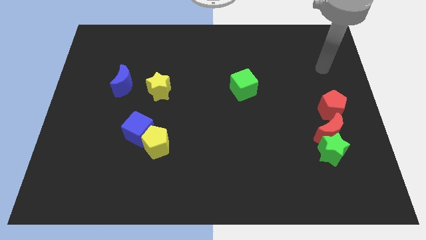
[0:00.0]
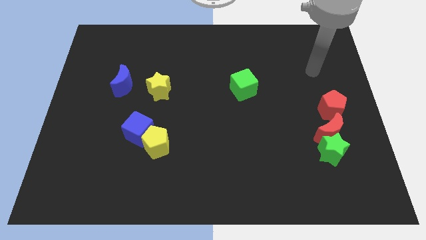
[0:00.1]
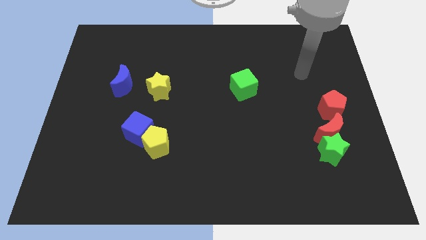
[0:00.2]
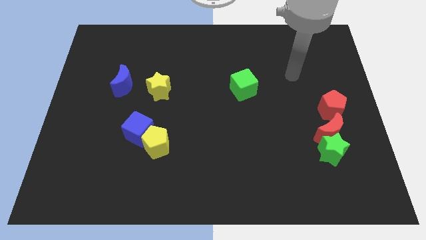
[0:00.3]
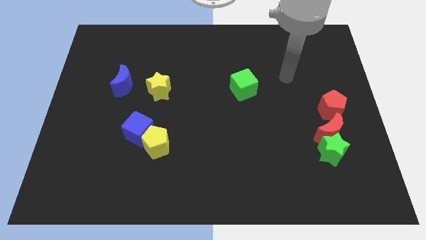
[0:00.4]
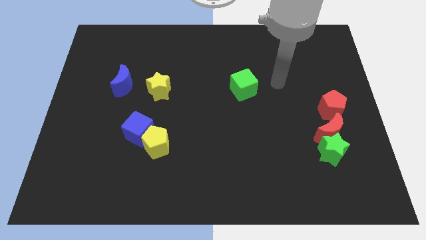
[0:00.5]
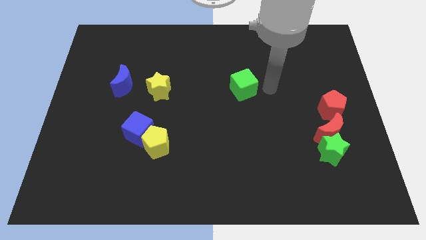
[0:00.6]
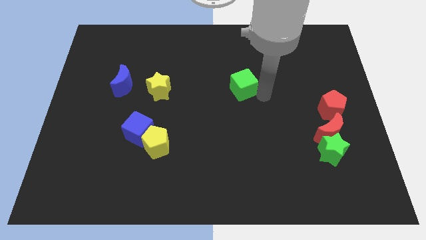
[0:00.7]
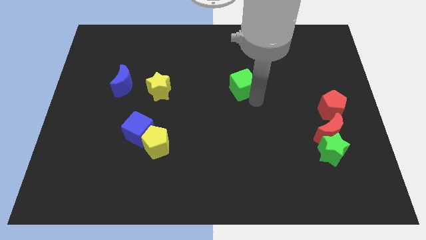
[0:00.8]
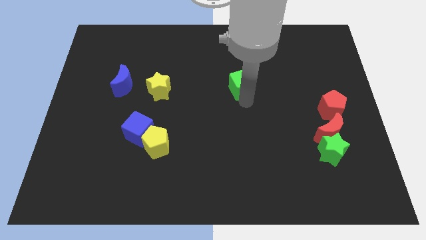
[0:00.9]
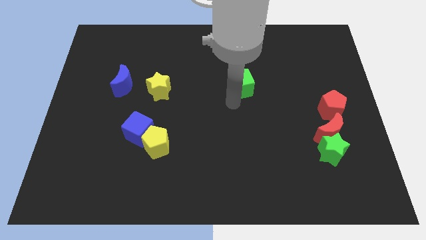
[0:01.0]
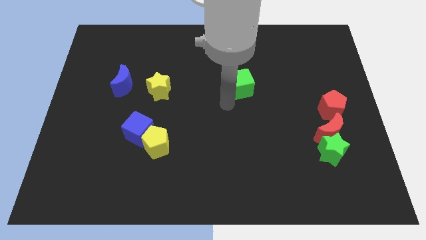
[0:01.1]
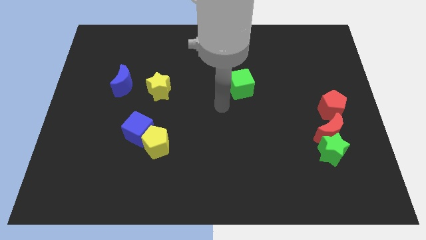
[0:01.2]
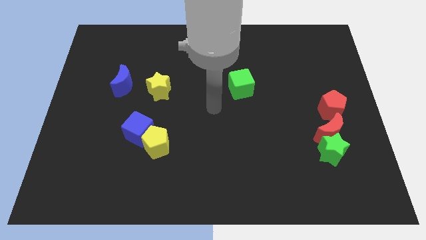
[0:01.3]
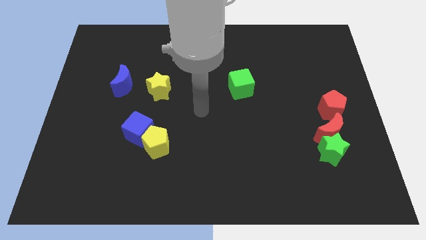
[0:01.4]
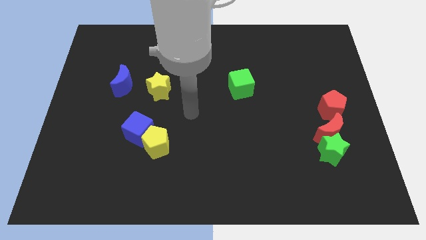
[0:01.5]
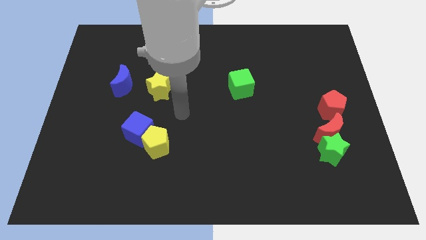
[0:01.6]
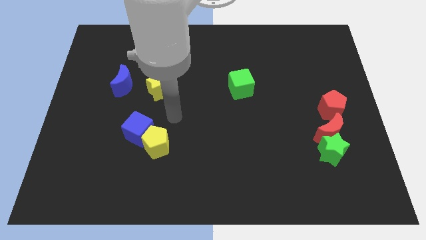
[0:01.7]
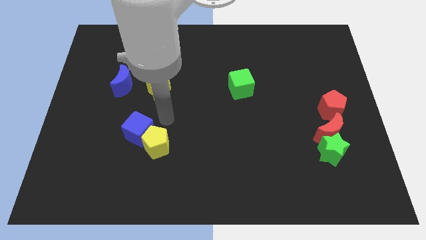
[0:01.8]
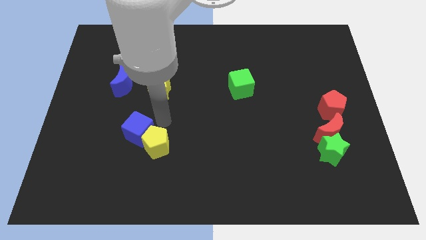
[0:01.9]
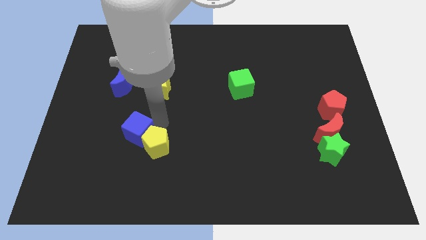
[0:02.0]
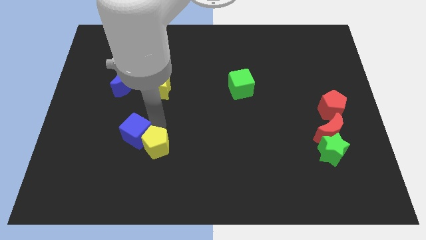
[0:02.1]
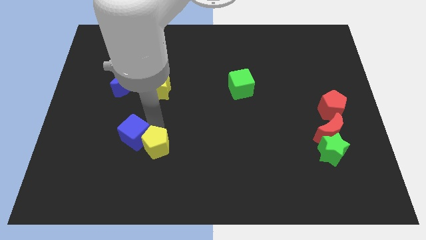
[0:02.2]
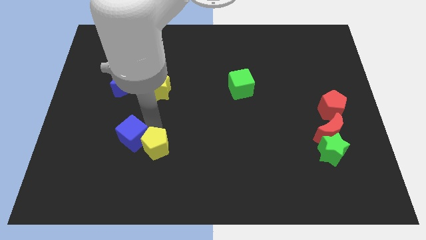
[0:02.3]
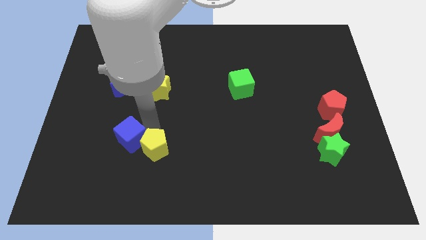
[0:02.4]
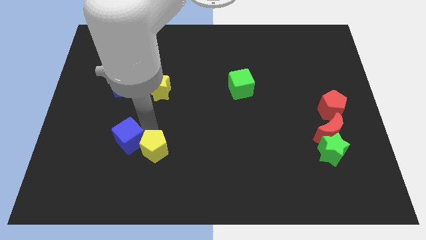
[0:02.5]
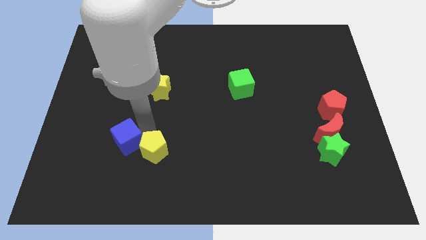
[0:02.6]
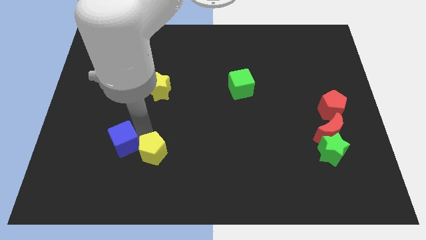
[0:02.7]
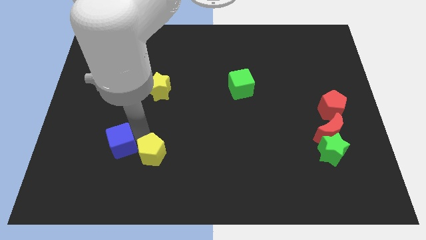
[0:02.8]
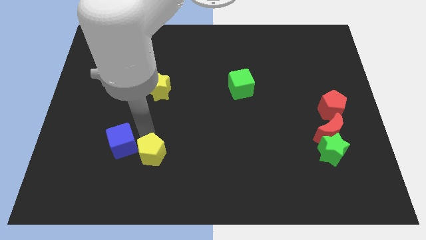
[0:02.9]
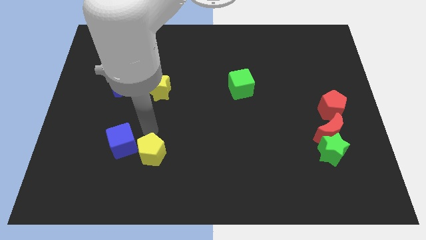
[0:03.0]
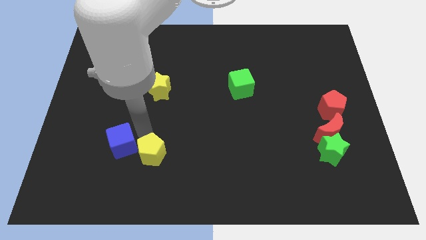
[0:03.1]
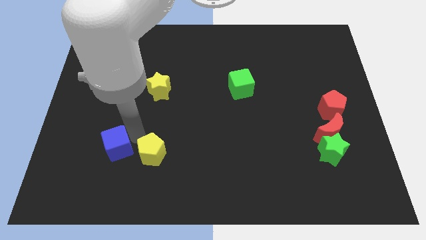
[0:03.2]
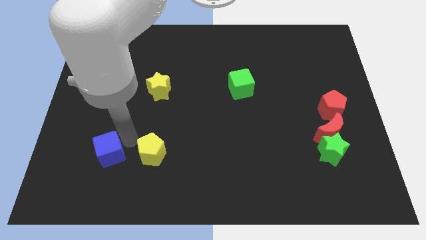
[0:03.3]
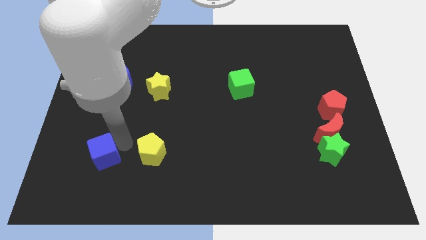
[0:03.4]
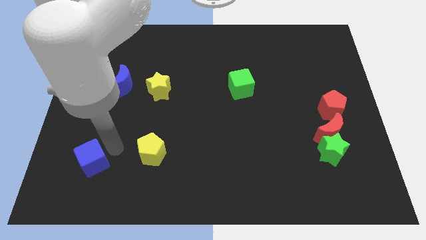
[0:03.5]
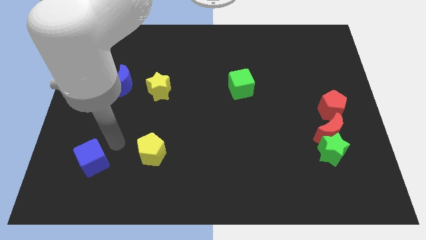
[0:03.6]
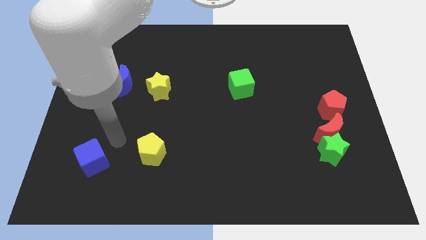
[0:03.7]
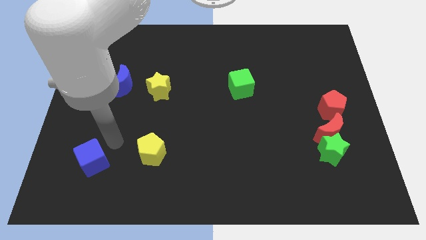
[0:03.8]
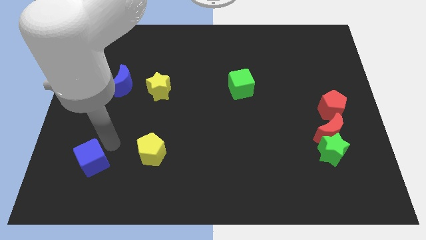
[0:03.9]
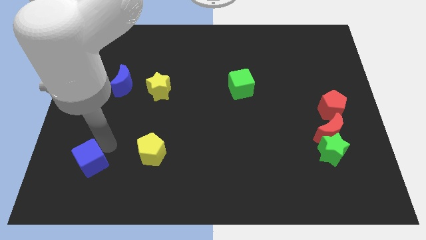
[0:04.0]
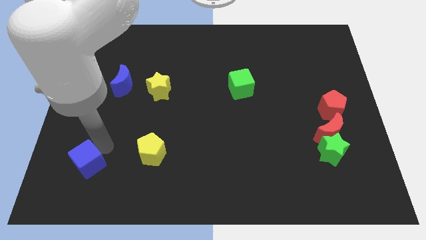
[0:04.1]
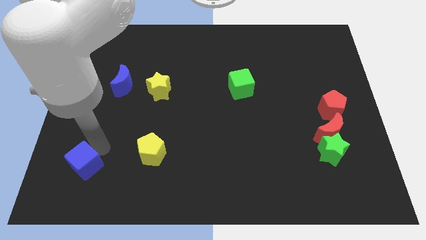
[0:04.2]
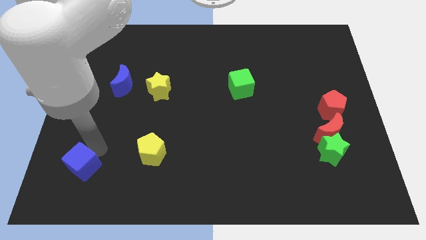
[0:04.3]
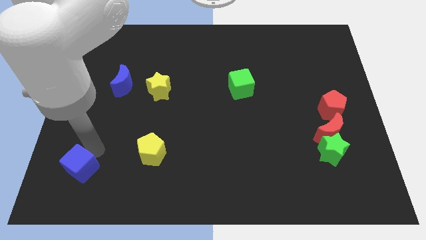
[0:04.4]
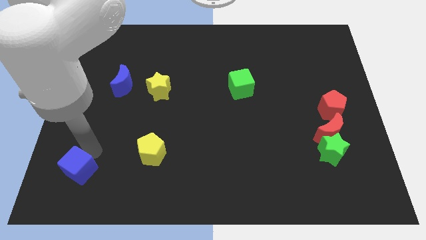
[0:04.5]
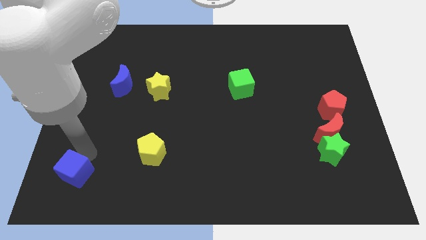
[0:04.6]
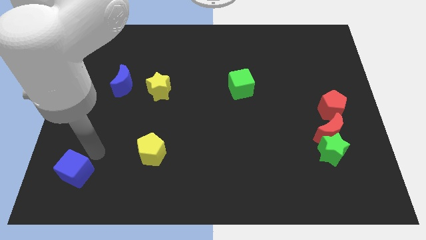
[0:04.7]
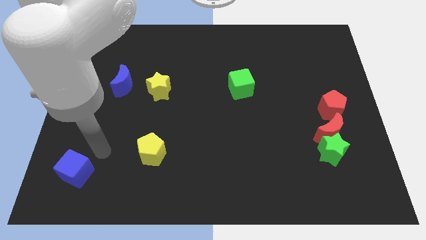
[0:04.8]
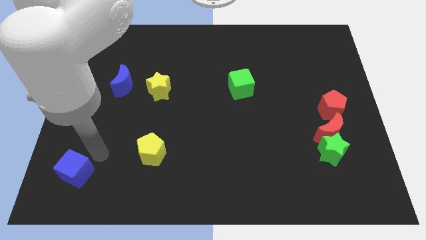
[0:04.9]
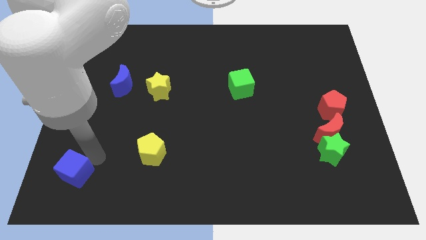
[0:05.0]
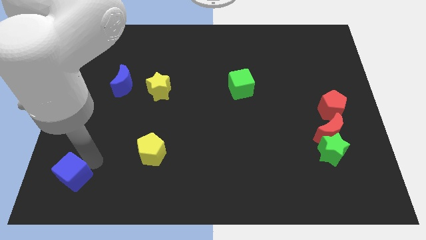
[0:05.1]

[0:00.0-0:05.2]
push the blue cube to the lower left corner

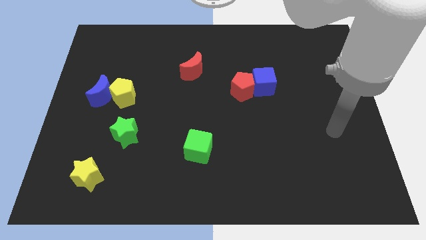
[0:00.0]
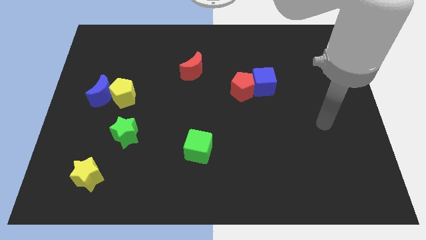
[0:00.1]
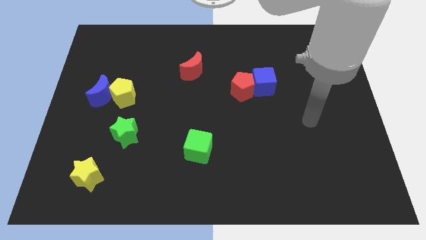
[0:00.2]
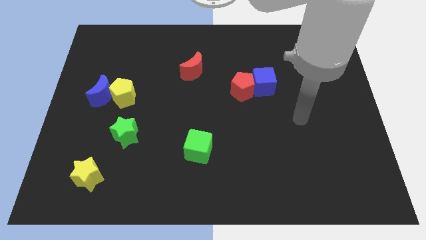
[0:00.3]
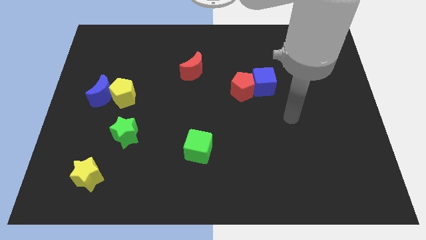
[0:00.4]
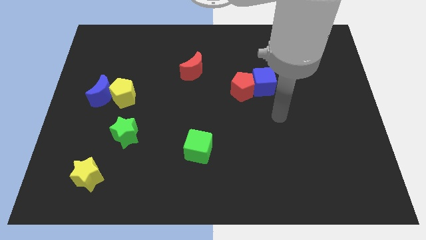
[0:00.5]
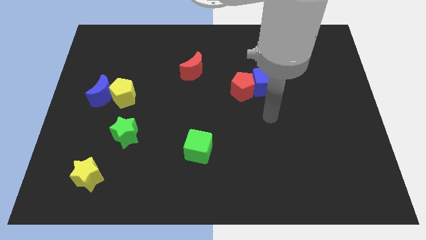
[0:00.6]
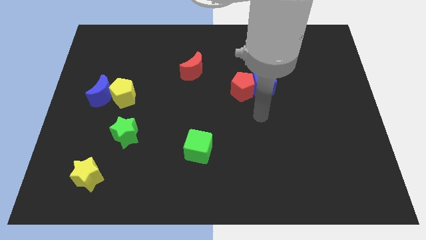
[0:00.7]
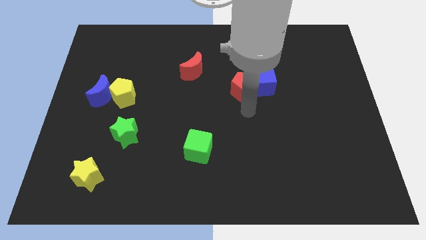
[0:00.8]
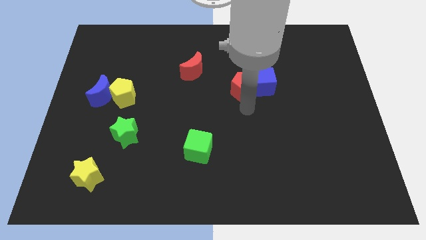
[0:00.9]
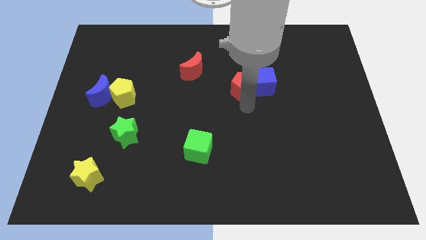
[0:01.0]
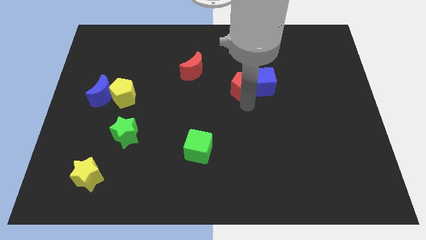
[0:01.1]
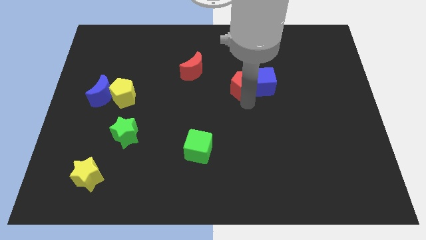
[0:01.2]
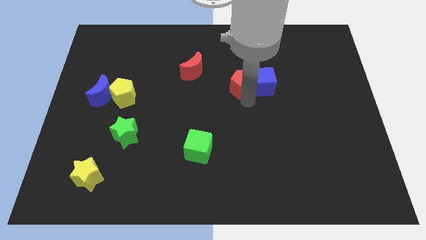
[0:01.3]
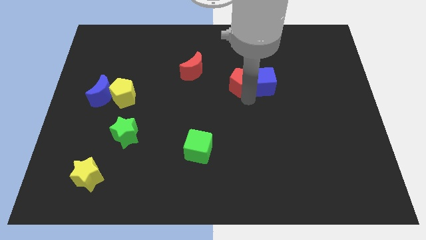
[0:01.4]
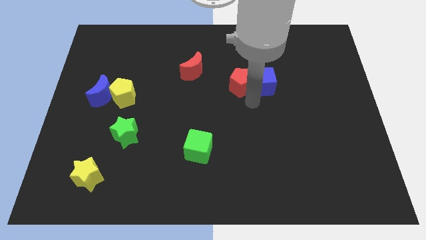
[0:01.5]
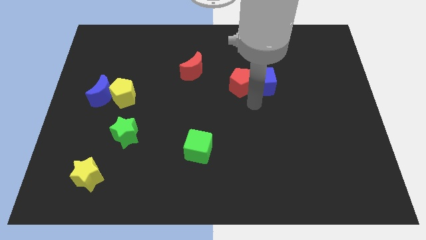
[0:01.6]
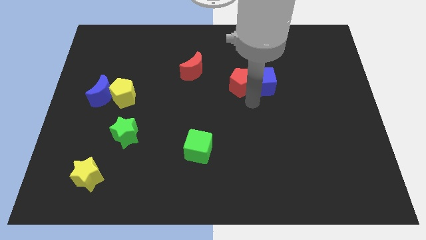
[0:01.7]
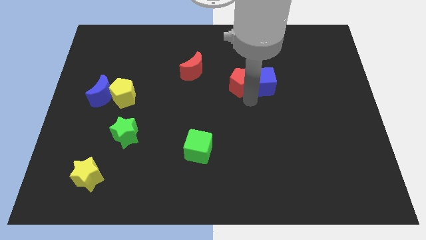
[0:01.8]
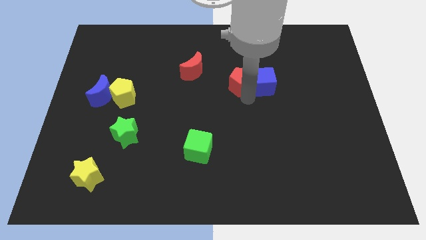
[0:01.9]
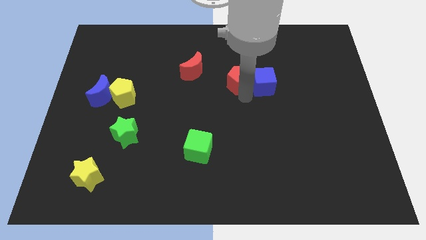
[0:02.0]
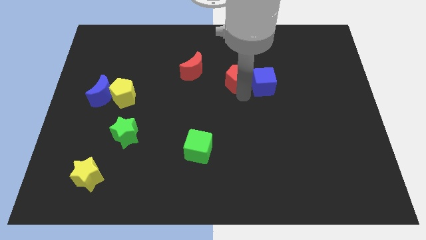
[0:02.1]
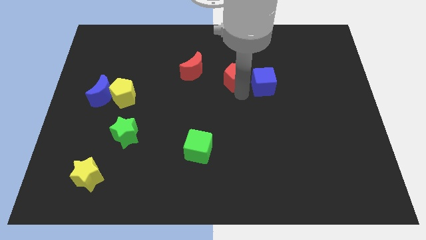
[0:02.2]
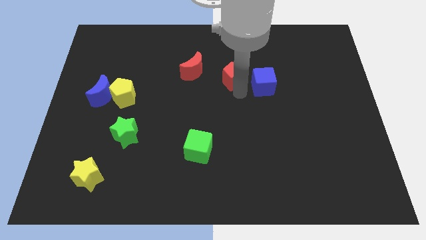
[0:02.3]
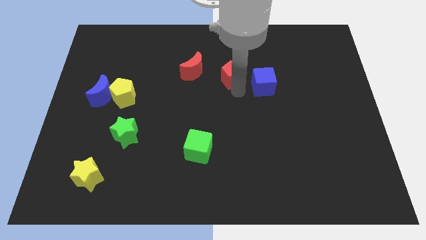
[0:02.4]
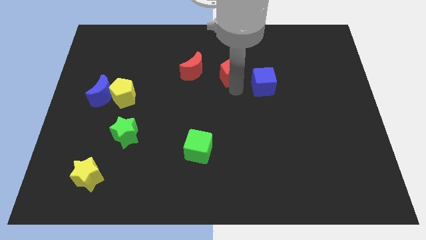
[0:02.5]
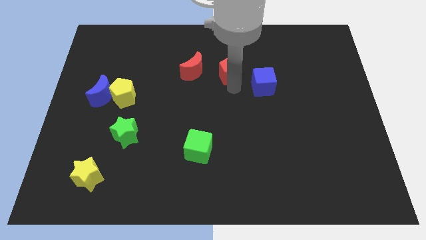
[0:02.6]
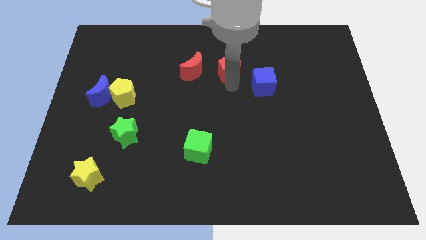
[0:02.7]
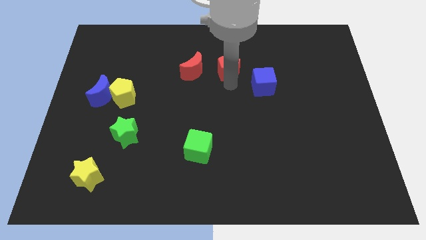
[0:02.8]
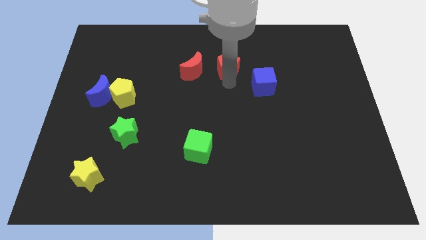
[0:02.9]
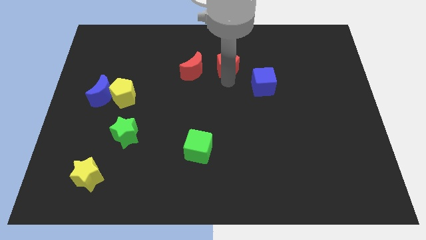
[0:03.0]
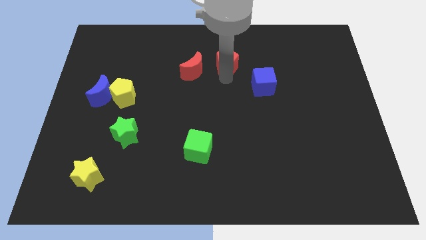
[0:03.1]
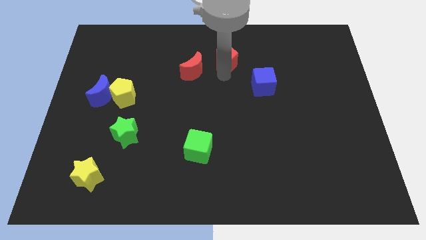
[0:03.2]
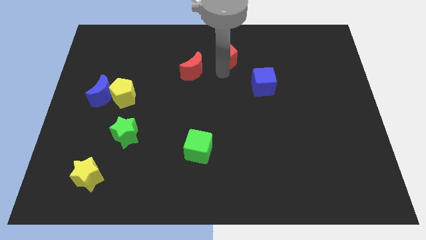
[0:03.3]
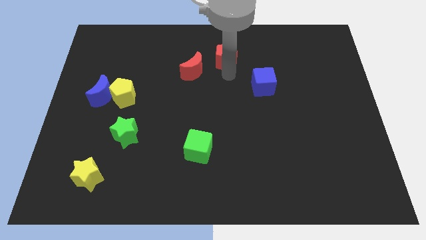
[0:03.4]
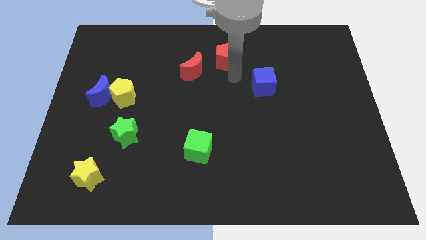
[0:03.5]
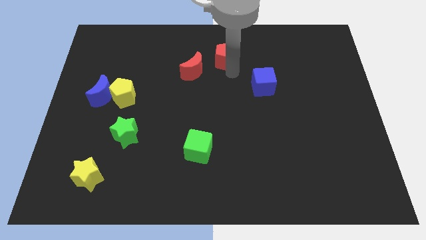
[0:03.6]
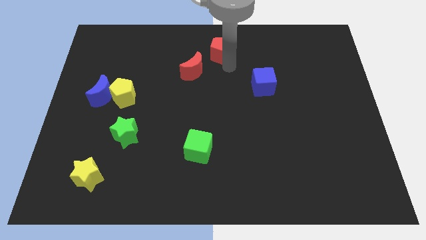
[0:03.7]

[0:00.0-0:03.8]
push the red pentagon to the towards your base
